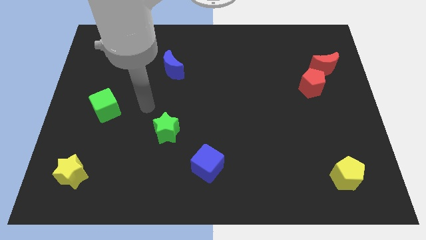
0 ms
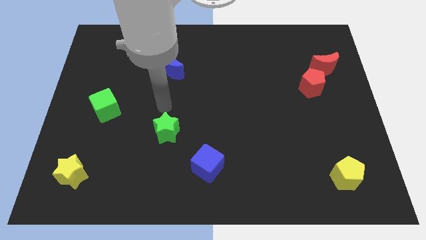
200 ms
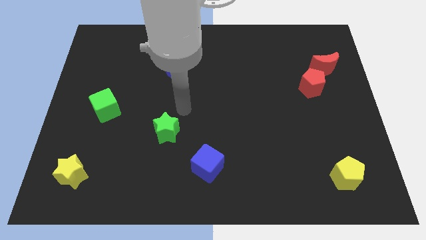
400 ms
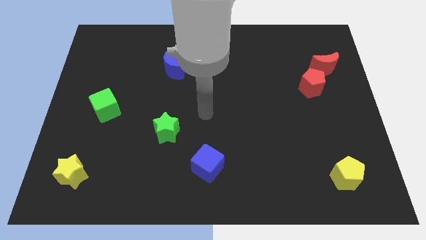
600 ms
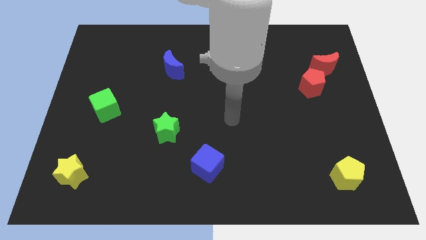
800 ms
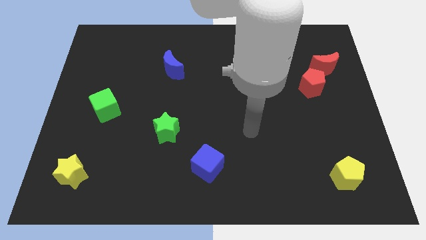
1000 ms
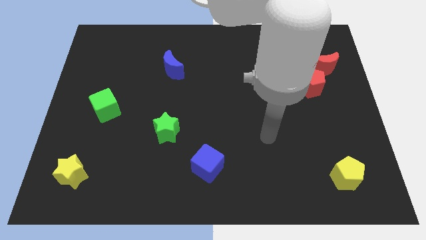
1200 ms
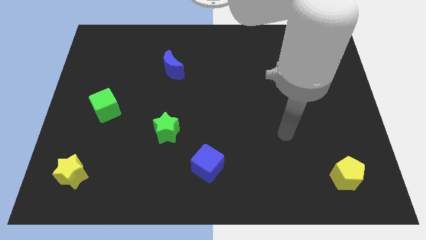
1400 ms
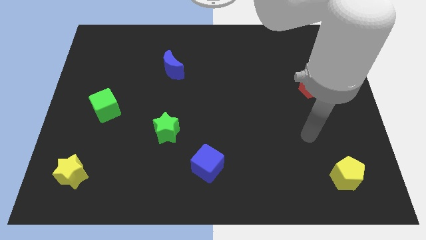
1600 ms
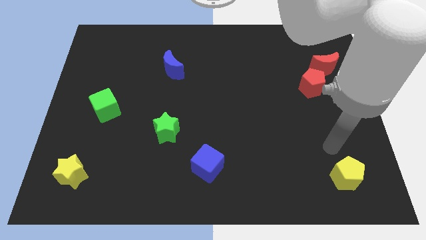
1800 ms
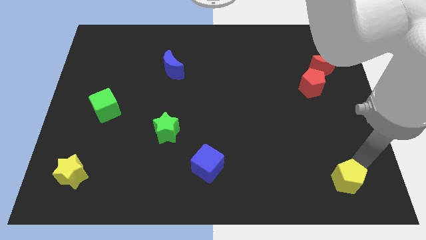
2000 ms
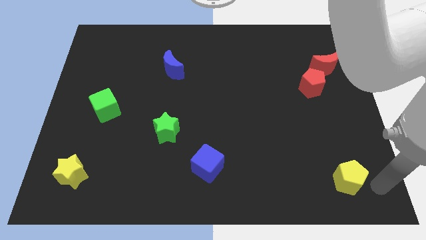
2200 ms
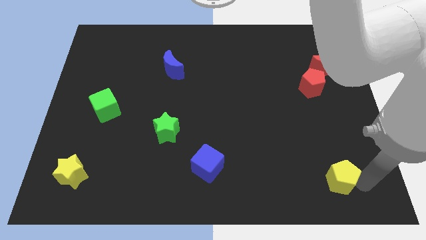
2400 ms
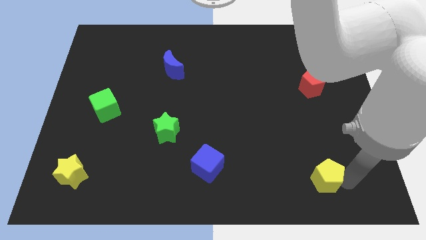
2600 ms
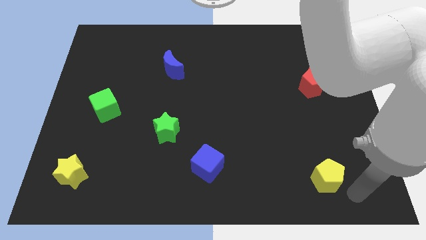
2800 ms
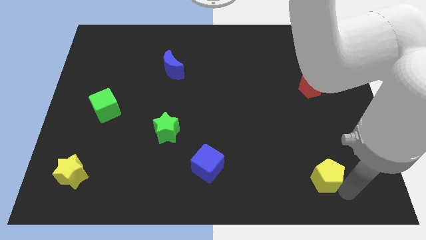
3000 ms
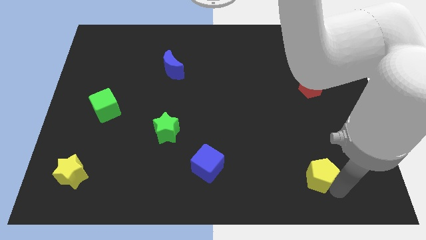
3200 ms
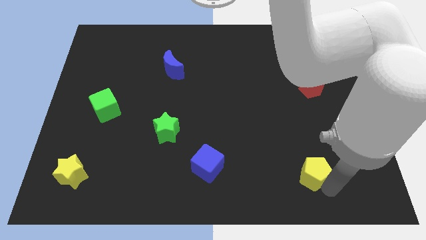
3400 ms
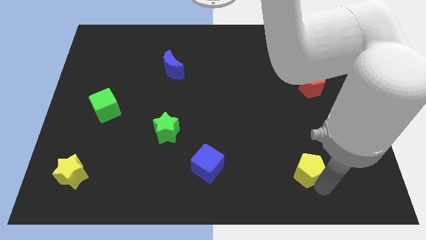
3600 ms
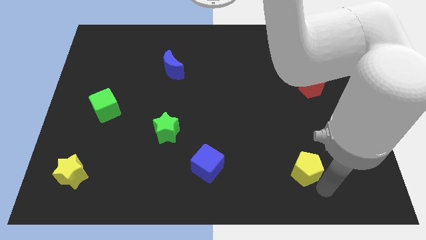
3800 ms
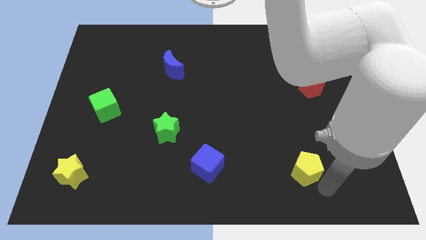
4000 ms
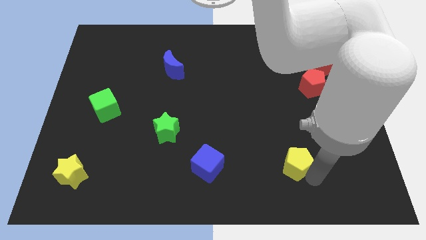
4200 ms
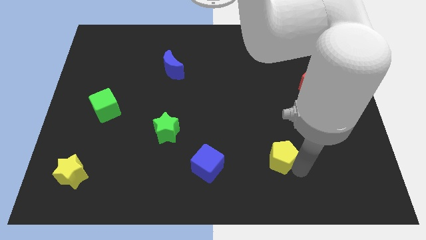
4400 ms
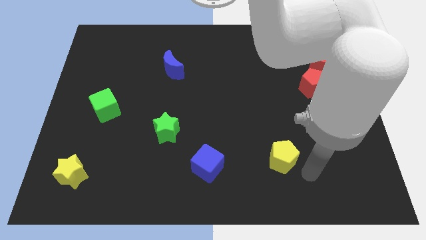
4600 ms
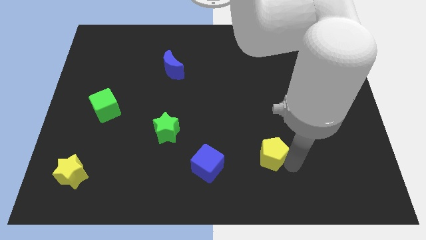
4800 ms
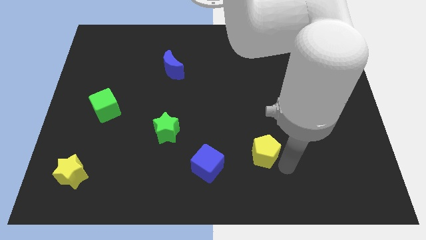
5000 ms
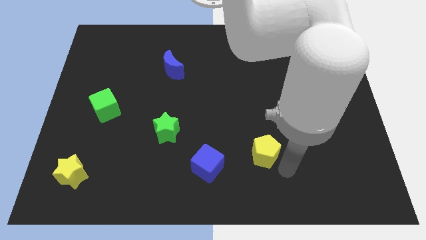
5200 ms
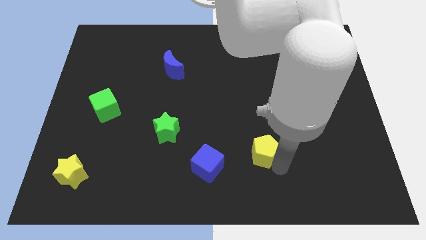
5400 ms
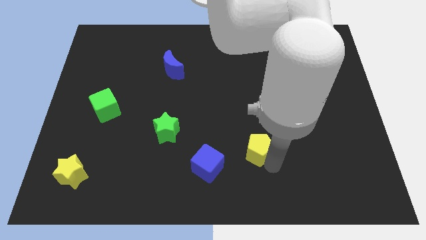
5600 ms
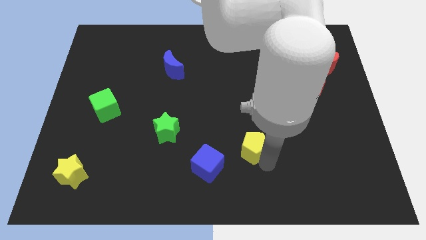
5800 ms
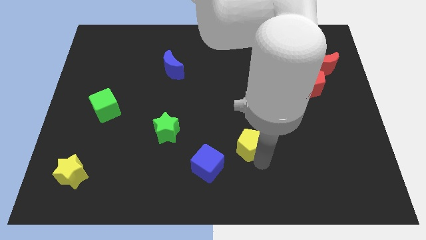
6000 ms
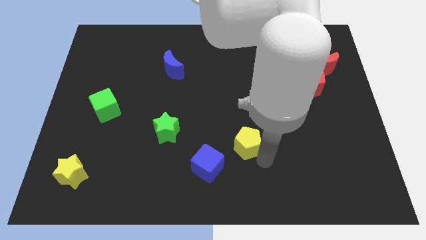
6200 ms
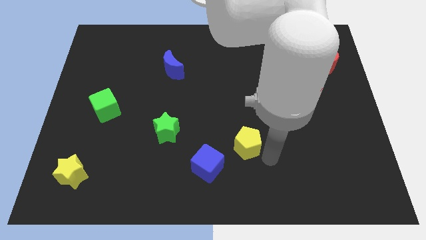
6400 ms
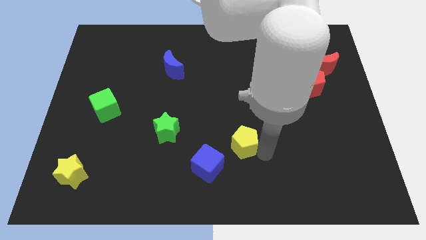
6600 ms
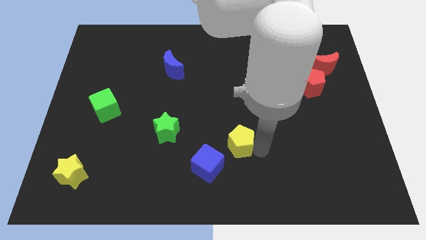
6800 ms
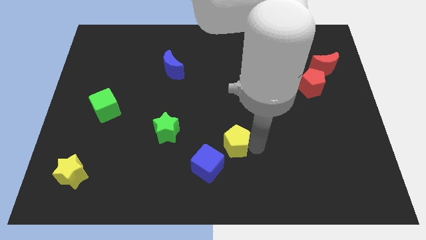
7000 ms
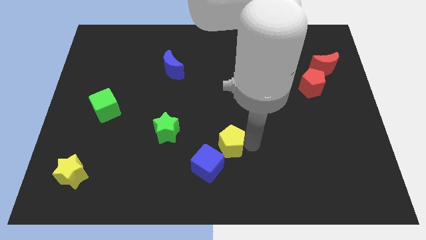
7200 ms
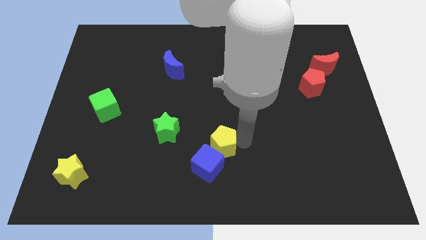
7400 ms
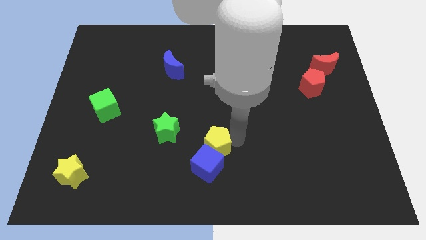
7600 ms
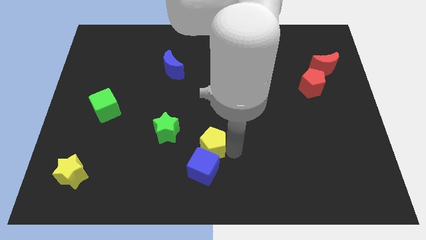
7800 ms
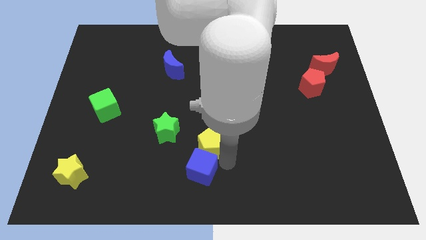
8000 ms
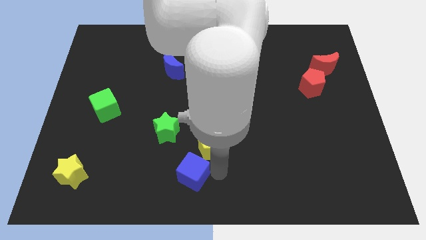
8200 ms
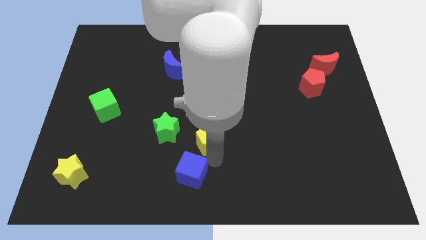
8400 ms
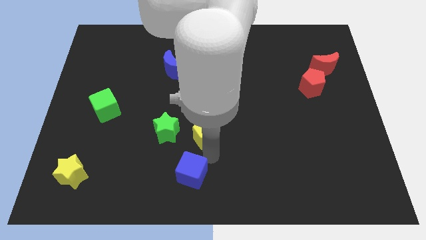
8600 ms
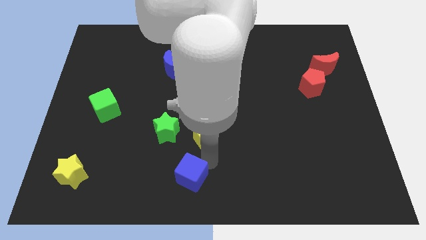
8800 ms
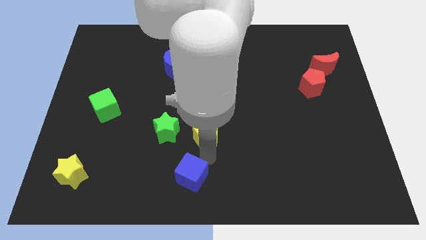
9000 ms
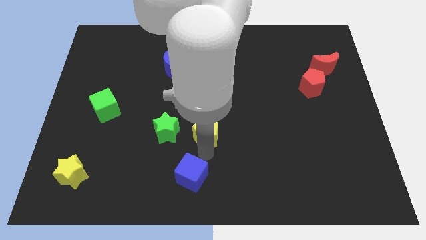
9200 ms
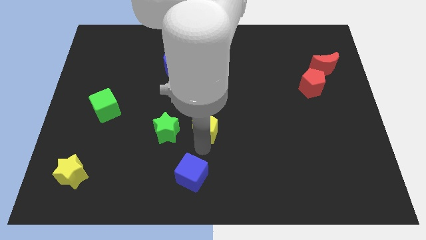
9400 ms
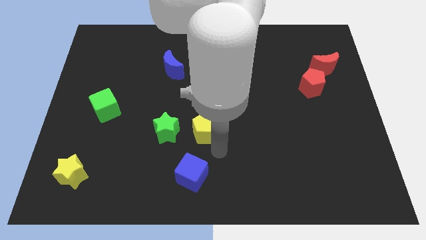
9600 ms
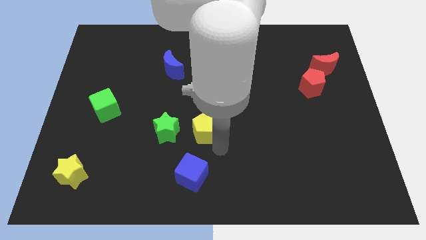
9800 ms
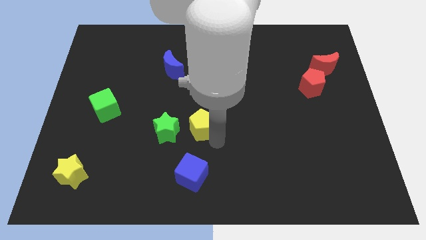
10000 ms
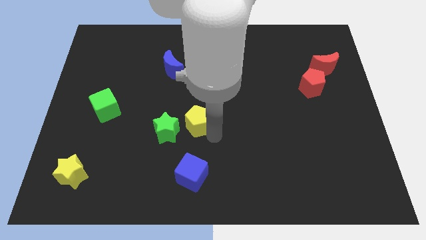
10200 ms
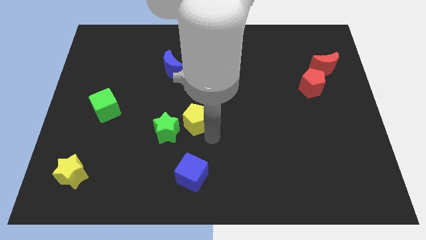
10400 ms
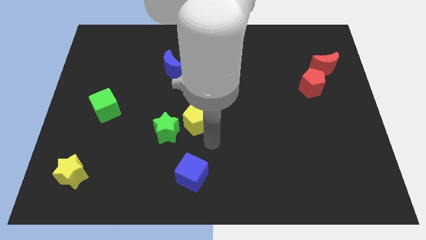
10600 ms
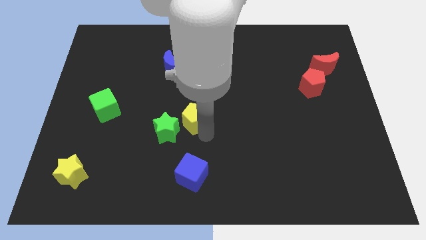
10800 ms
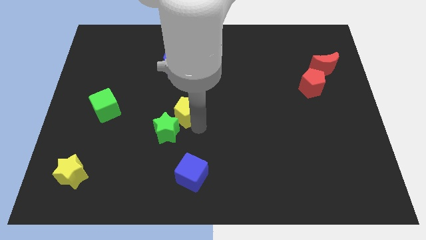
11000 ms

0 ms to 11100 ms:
push the yellow pentagon to the top side of the green star

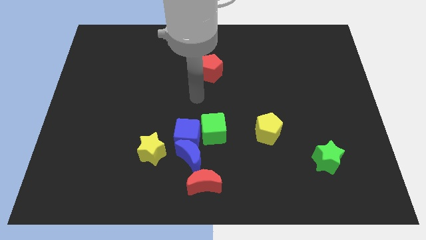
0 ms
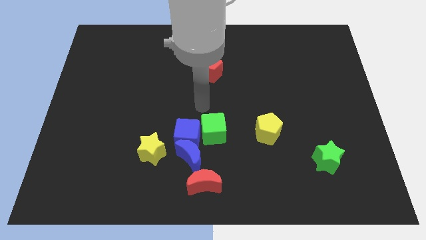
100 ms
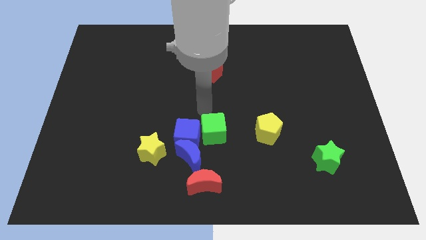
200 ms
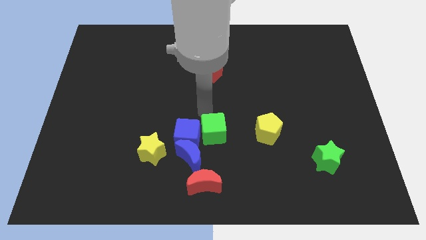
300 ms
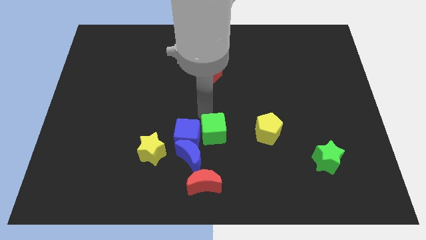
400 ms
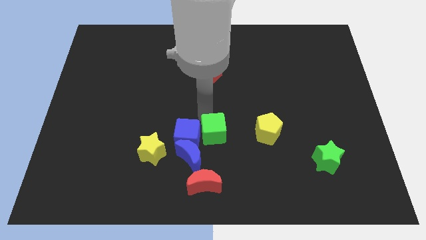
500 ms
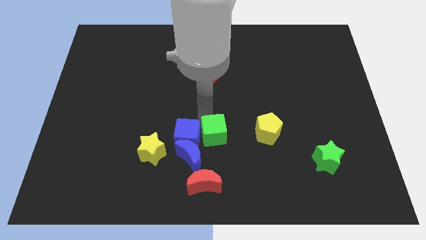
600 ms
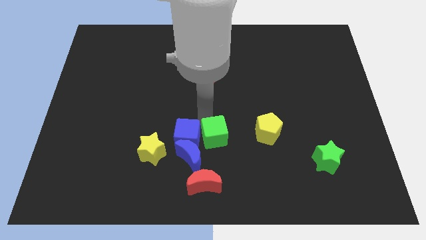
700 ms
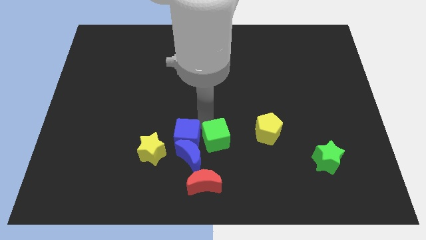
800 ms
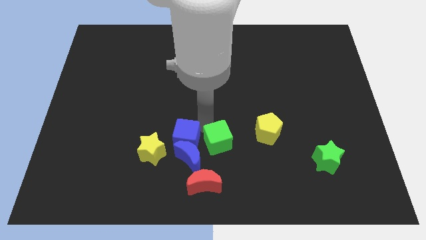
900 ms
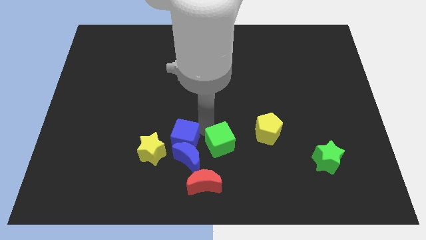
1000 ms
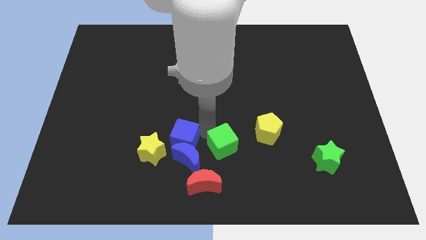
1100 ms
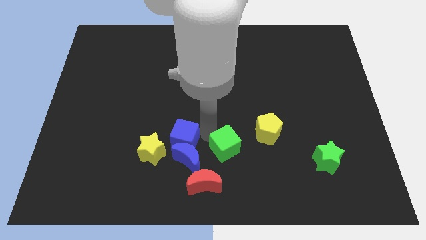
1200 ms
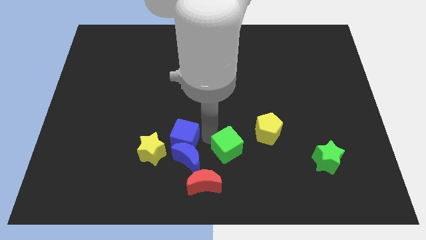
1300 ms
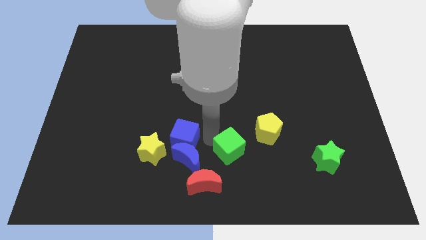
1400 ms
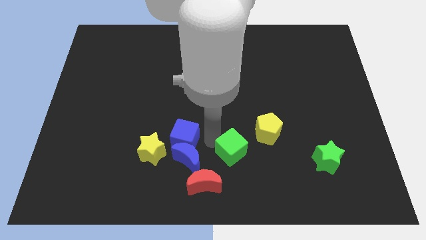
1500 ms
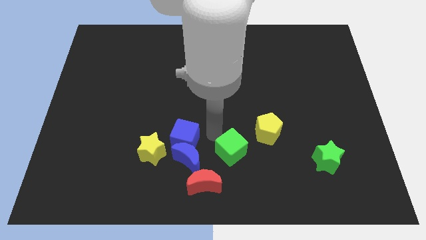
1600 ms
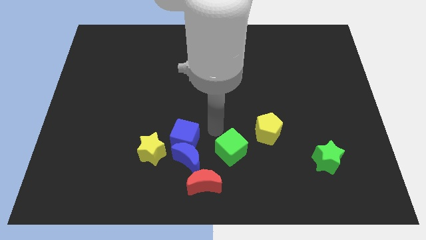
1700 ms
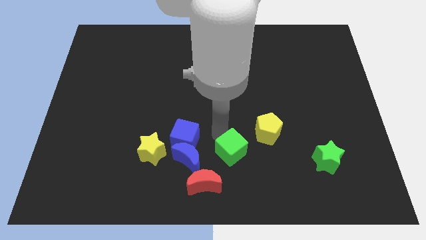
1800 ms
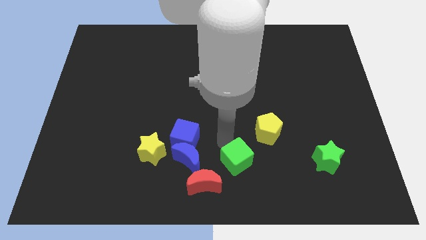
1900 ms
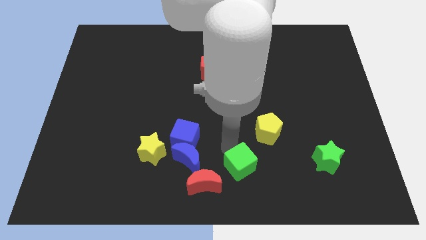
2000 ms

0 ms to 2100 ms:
push the green cube right of the red moon
